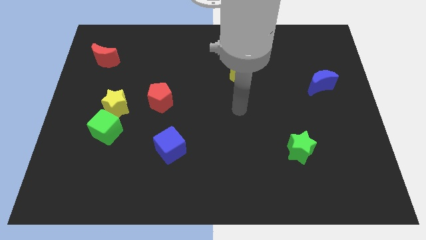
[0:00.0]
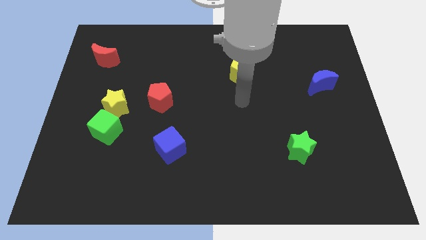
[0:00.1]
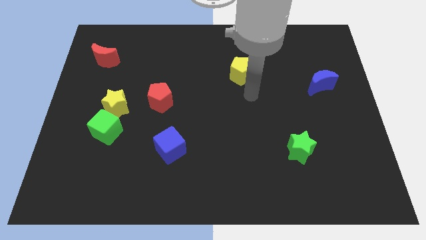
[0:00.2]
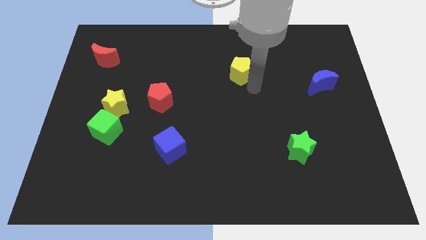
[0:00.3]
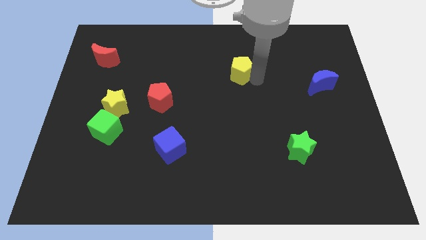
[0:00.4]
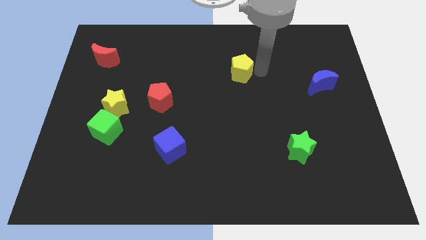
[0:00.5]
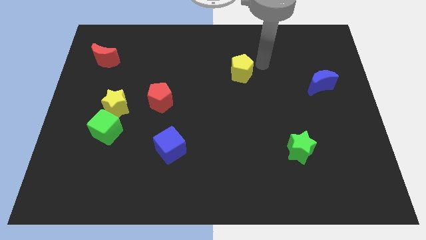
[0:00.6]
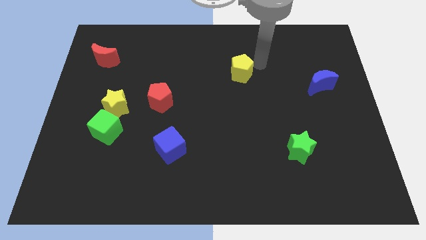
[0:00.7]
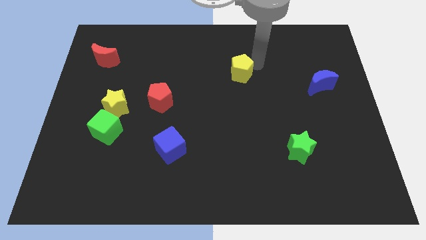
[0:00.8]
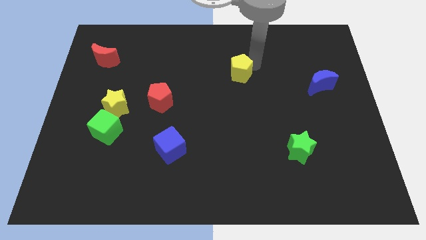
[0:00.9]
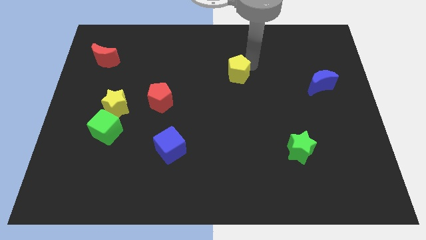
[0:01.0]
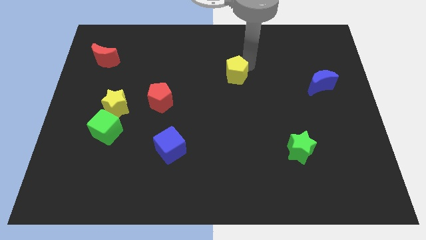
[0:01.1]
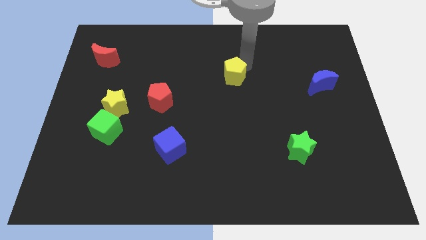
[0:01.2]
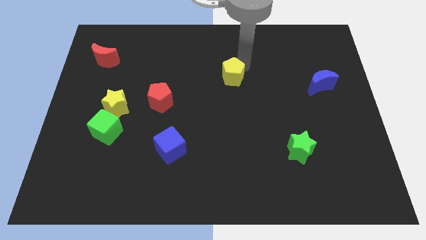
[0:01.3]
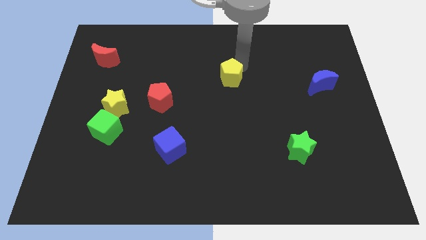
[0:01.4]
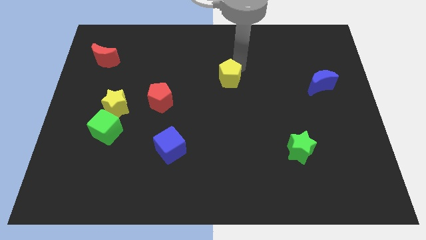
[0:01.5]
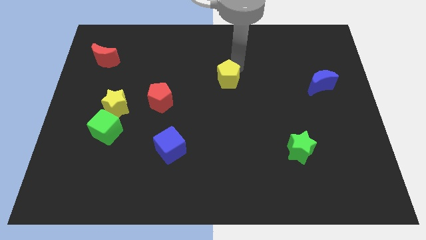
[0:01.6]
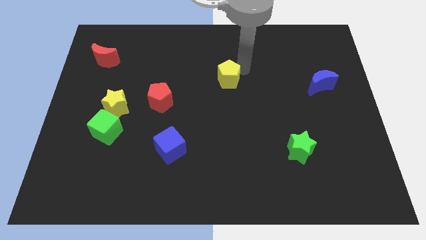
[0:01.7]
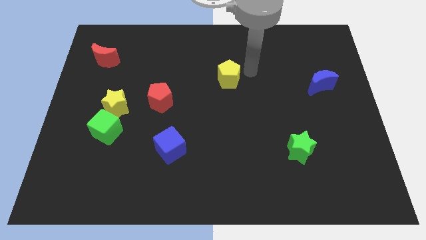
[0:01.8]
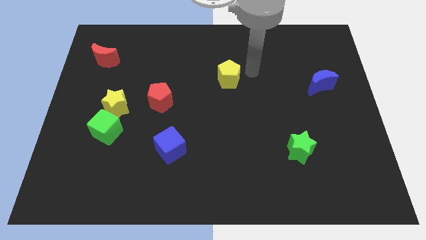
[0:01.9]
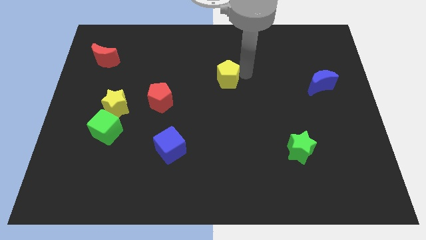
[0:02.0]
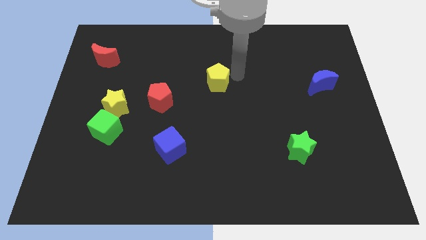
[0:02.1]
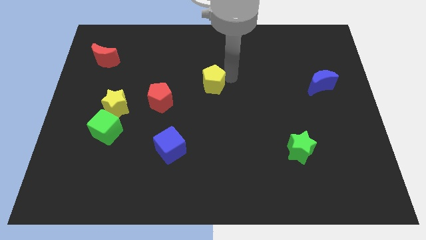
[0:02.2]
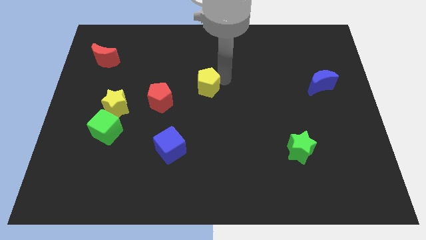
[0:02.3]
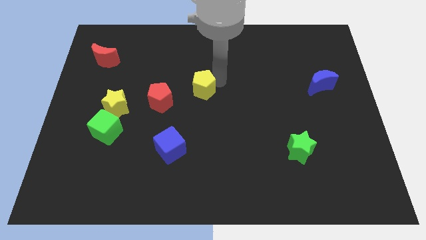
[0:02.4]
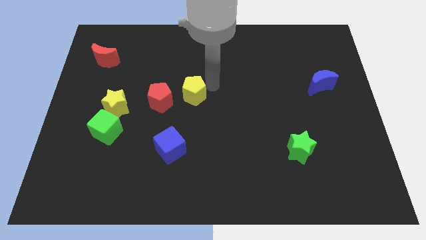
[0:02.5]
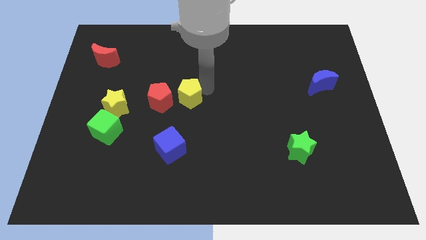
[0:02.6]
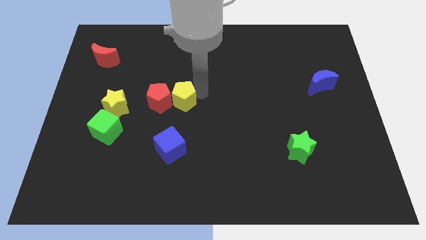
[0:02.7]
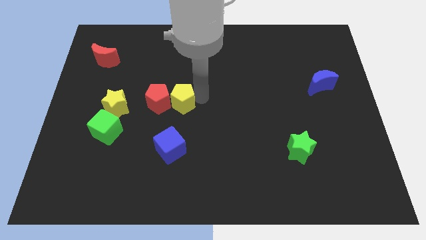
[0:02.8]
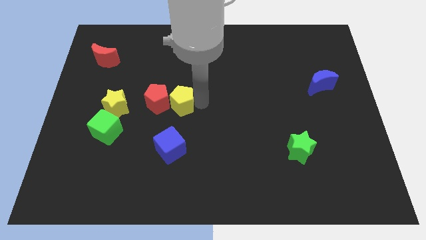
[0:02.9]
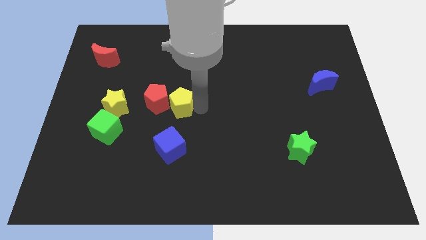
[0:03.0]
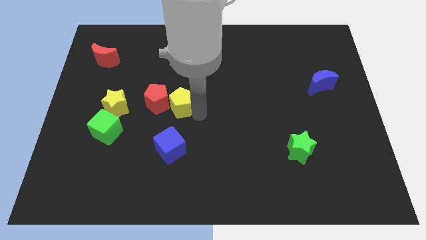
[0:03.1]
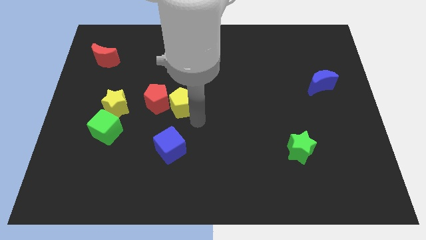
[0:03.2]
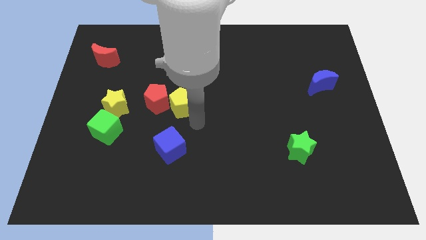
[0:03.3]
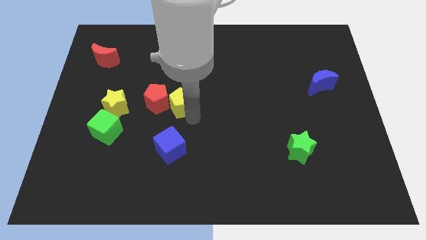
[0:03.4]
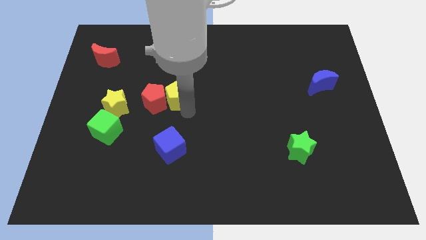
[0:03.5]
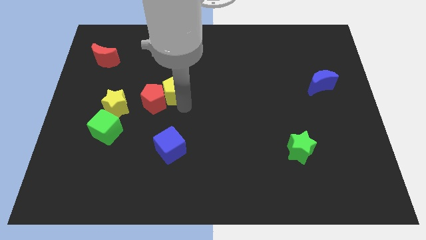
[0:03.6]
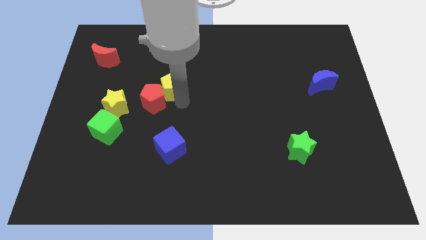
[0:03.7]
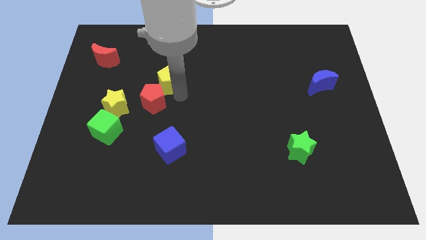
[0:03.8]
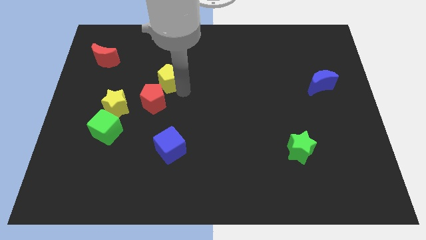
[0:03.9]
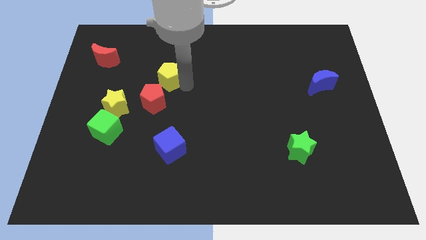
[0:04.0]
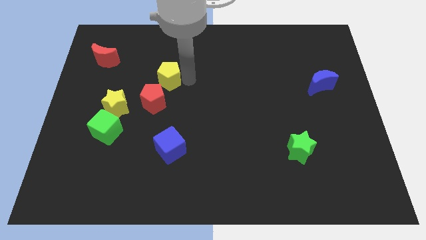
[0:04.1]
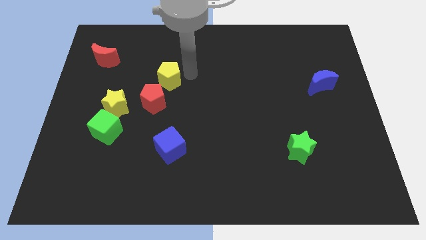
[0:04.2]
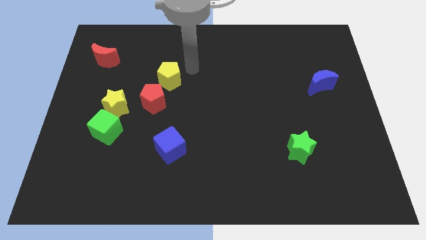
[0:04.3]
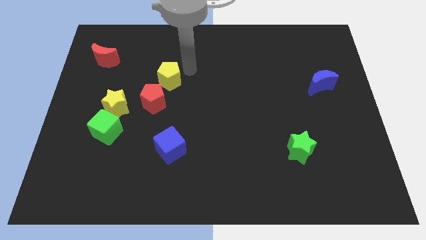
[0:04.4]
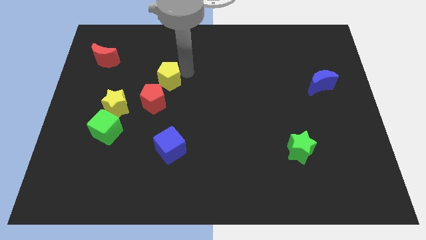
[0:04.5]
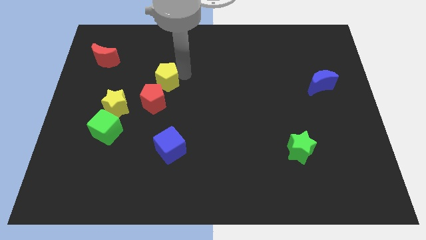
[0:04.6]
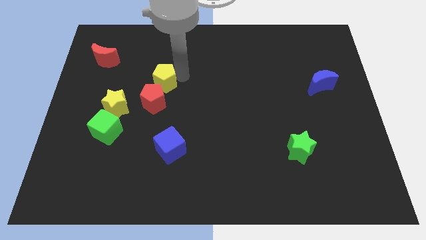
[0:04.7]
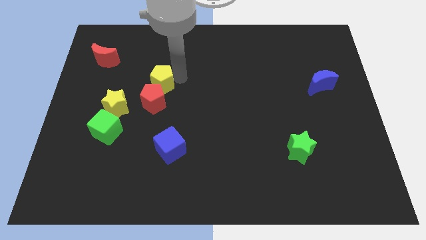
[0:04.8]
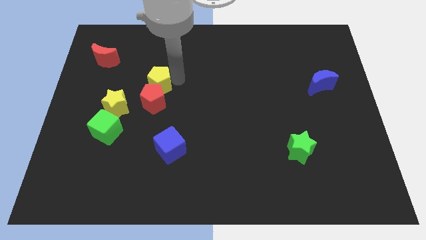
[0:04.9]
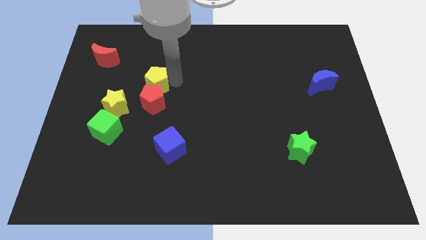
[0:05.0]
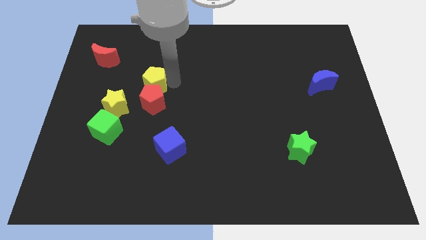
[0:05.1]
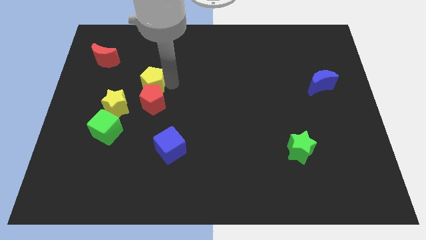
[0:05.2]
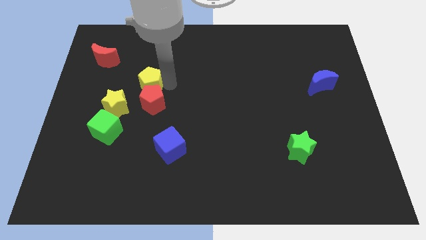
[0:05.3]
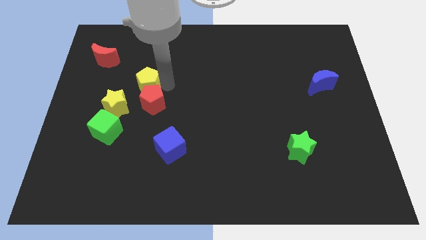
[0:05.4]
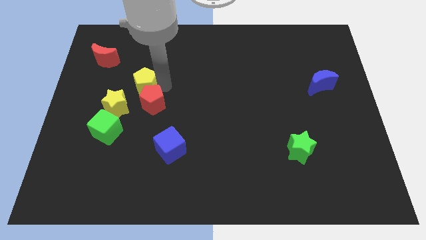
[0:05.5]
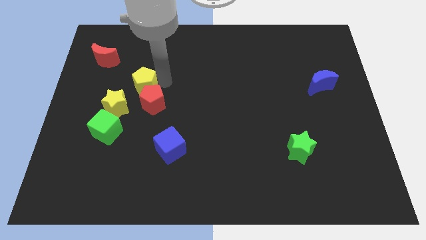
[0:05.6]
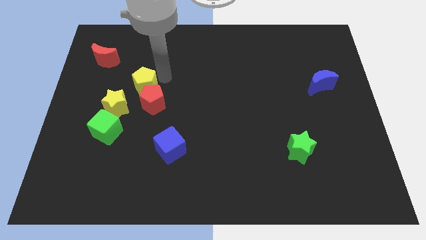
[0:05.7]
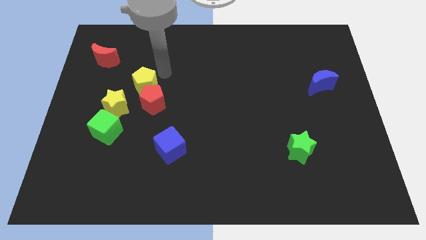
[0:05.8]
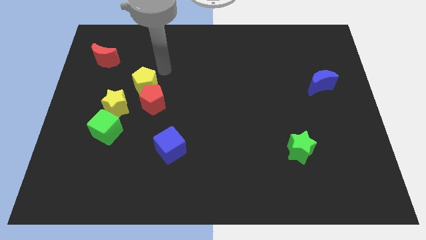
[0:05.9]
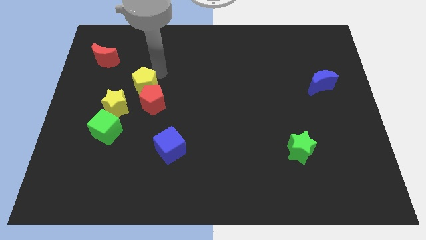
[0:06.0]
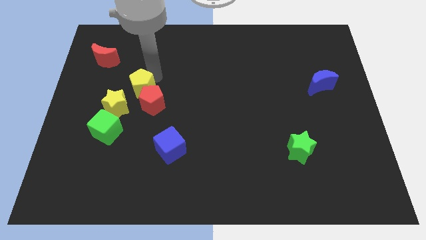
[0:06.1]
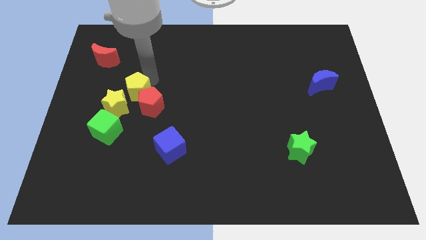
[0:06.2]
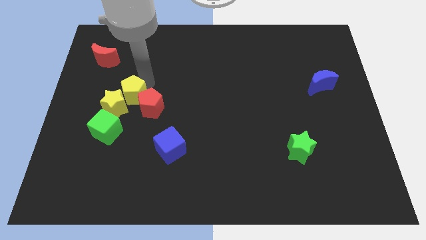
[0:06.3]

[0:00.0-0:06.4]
put the yellow pentagon close to the yellow star

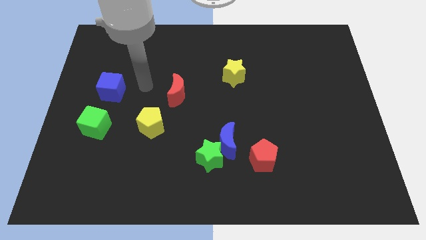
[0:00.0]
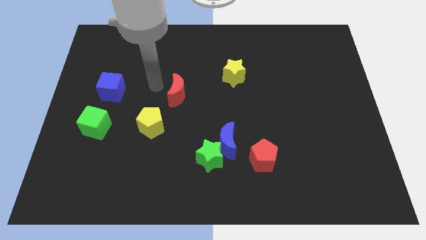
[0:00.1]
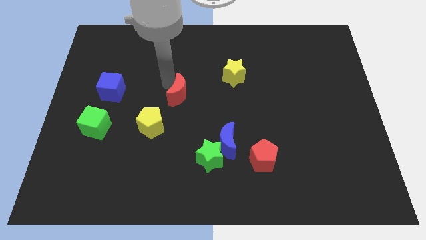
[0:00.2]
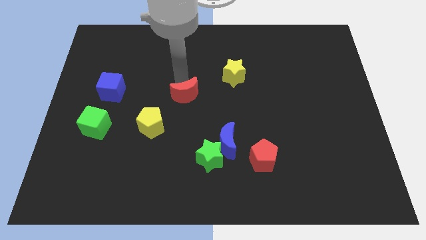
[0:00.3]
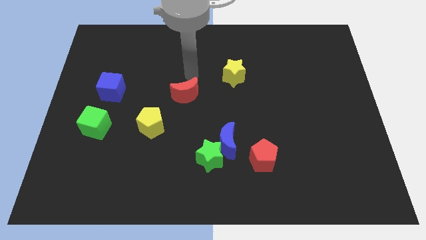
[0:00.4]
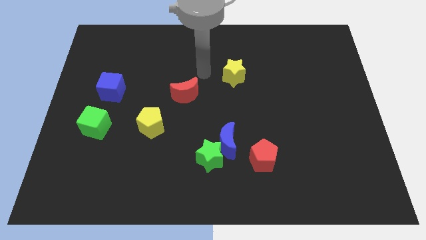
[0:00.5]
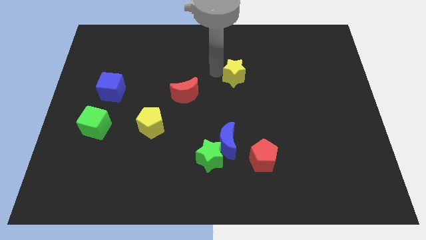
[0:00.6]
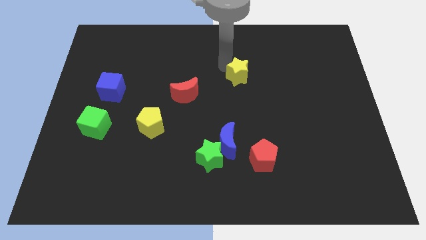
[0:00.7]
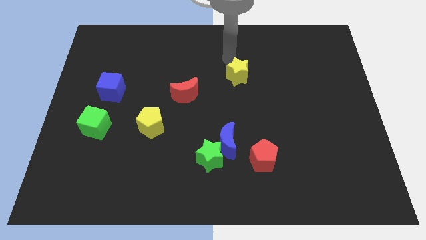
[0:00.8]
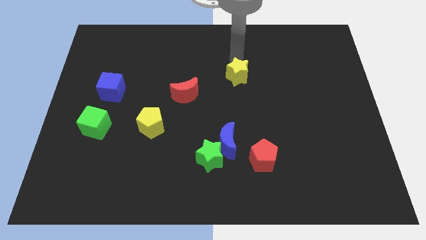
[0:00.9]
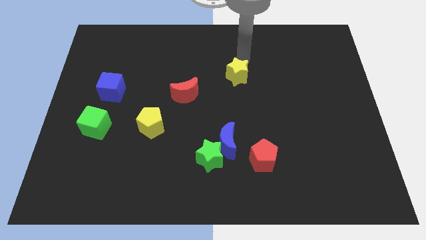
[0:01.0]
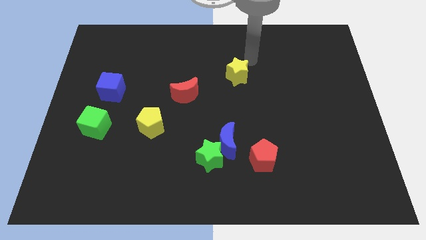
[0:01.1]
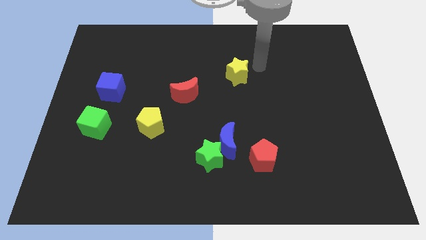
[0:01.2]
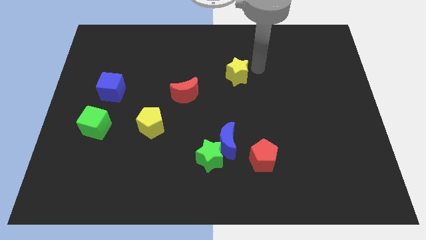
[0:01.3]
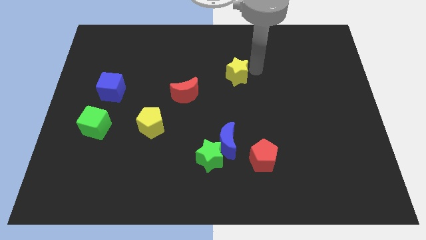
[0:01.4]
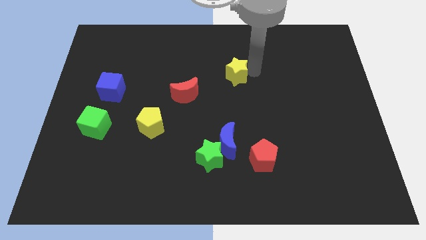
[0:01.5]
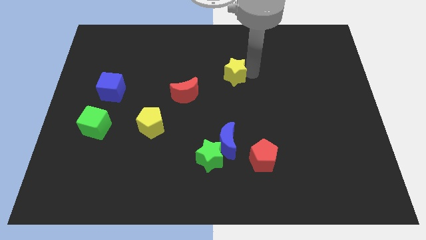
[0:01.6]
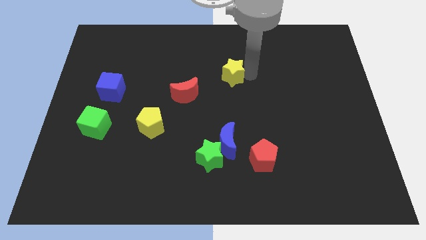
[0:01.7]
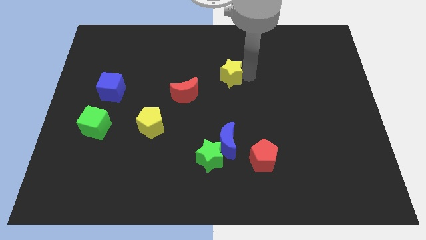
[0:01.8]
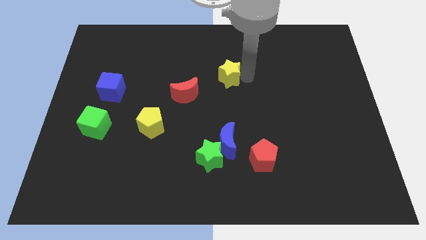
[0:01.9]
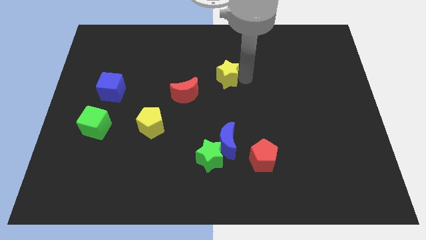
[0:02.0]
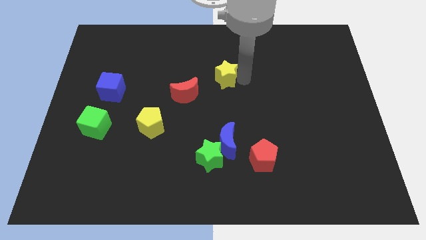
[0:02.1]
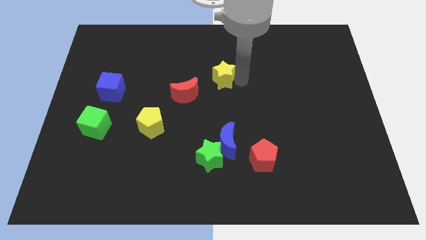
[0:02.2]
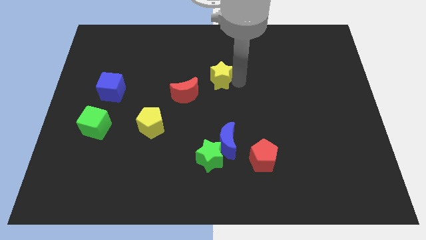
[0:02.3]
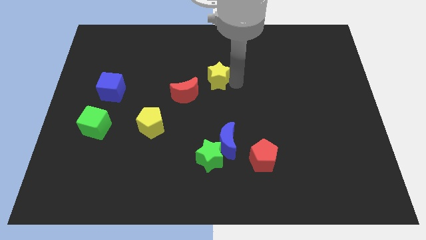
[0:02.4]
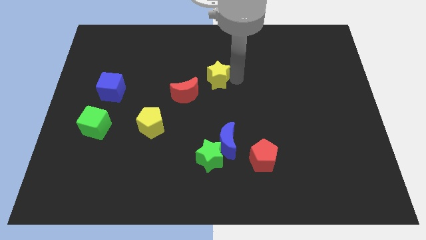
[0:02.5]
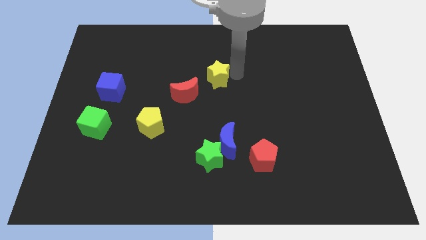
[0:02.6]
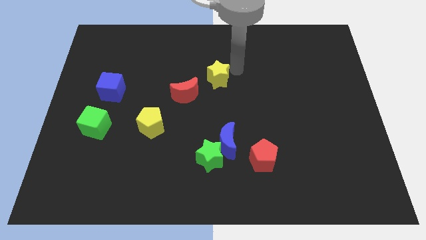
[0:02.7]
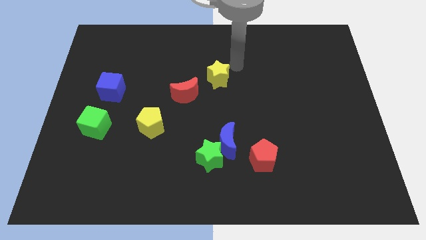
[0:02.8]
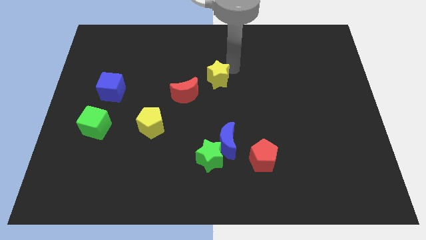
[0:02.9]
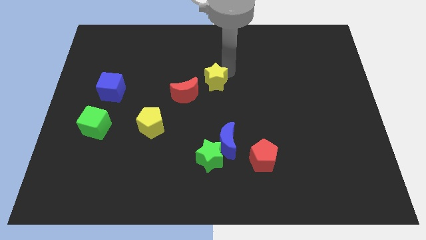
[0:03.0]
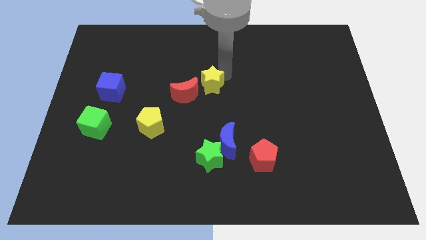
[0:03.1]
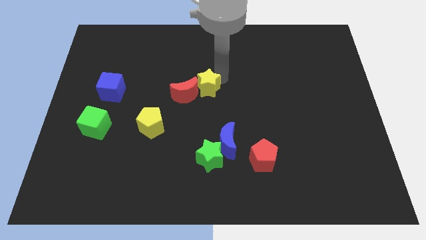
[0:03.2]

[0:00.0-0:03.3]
push the yellow star close to the red moon
